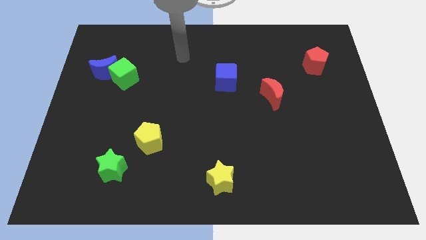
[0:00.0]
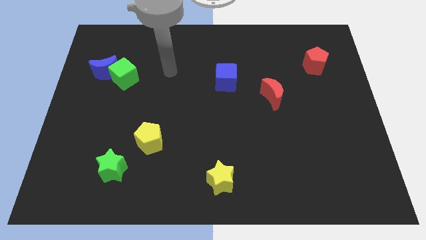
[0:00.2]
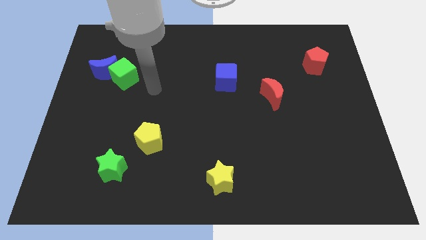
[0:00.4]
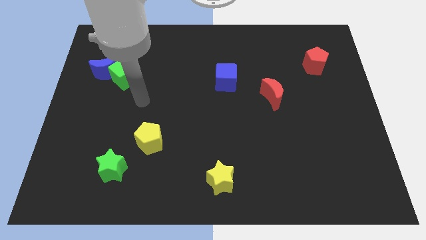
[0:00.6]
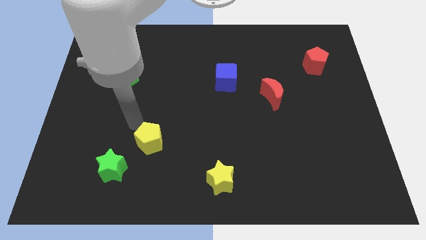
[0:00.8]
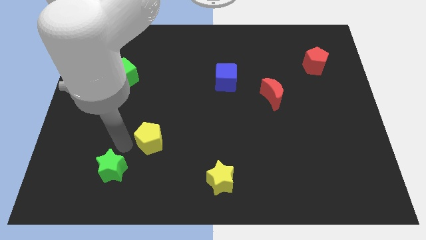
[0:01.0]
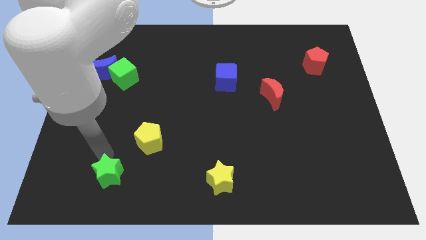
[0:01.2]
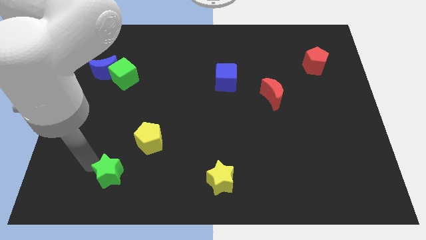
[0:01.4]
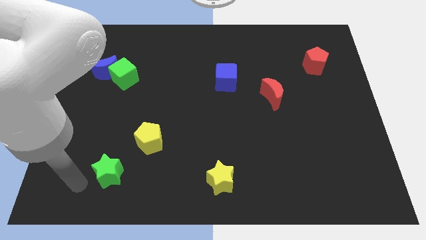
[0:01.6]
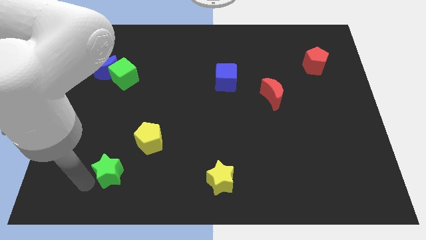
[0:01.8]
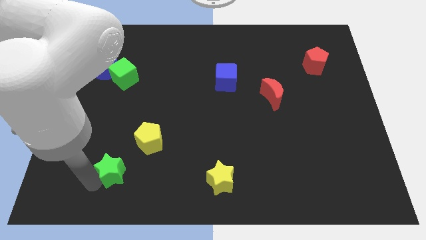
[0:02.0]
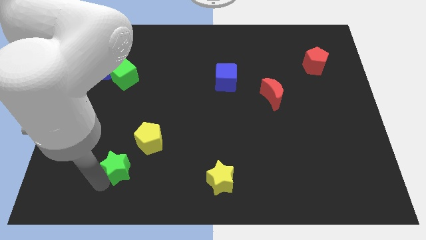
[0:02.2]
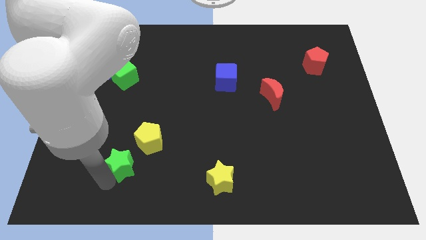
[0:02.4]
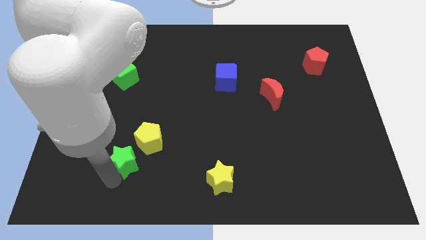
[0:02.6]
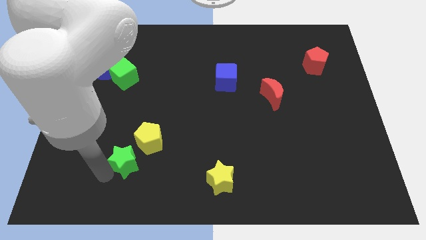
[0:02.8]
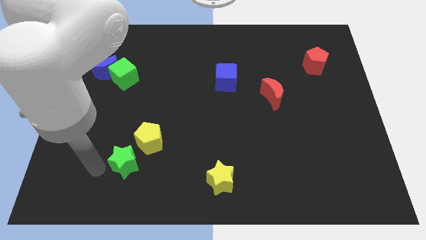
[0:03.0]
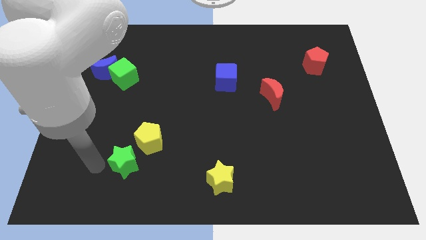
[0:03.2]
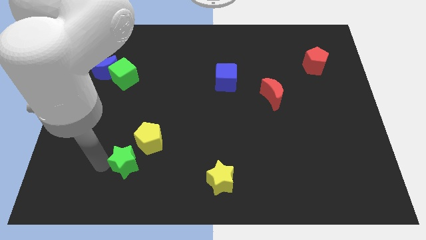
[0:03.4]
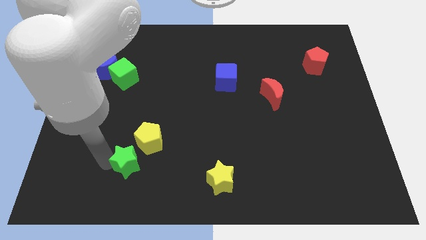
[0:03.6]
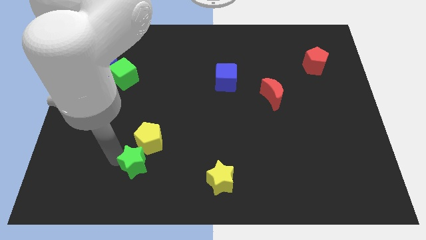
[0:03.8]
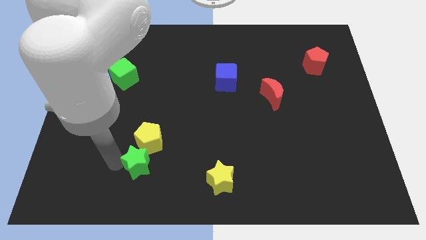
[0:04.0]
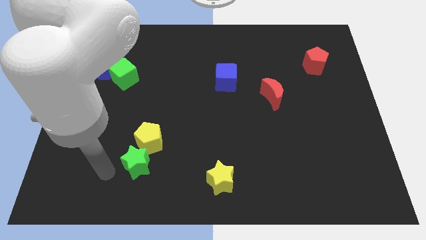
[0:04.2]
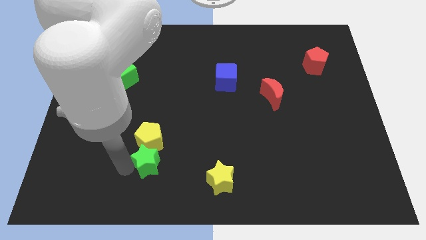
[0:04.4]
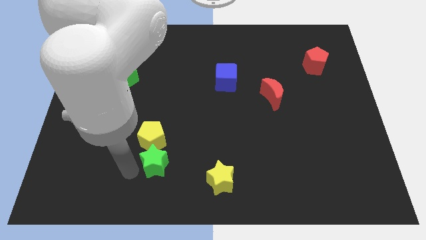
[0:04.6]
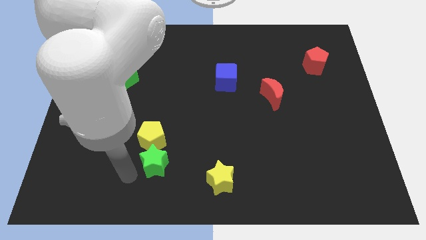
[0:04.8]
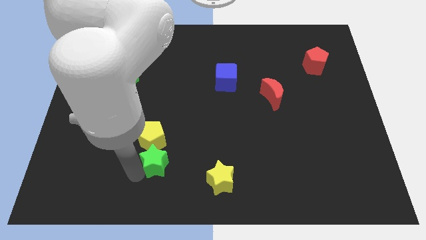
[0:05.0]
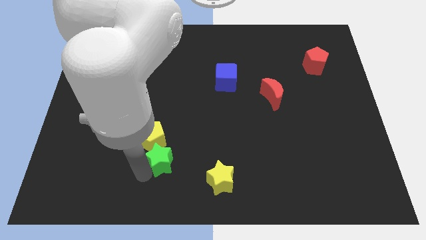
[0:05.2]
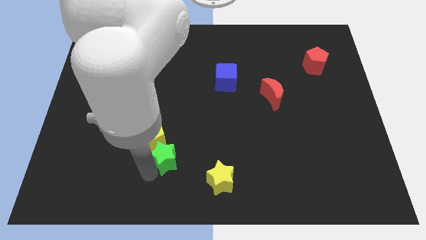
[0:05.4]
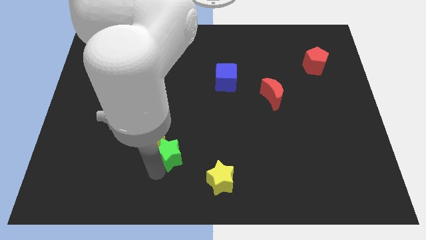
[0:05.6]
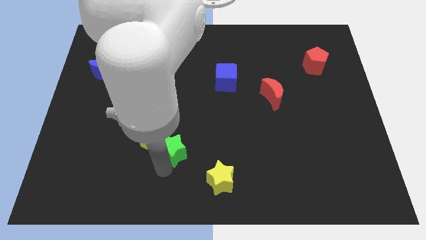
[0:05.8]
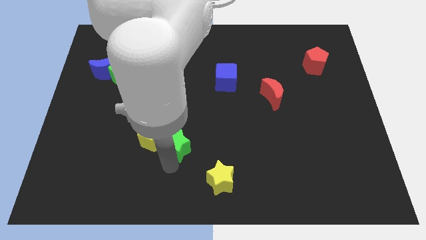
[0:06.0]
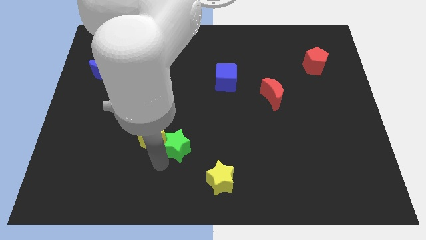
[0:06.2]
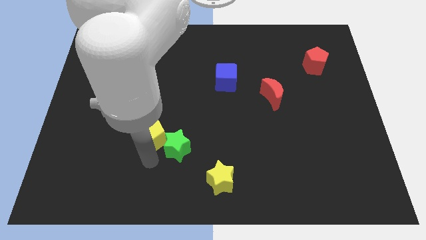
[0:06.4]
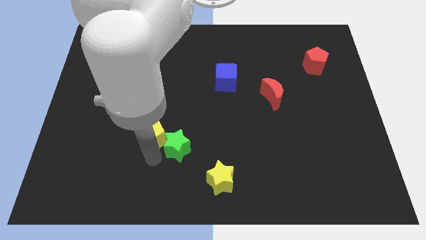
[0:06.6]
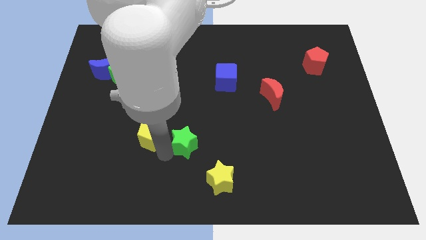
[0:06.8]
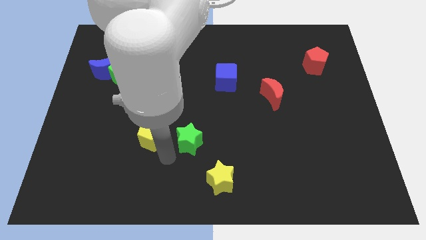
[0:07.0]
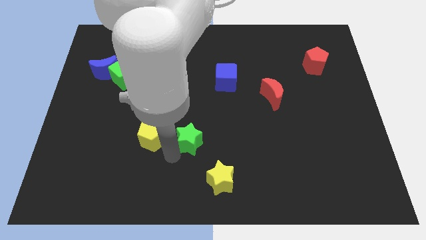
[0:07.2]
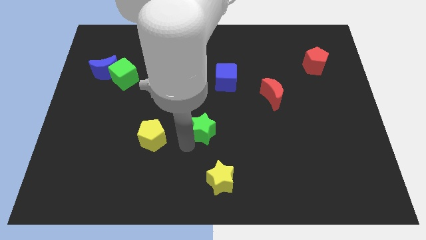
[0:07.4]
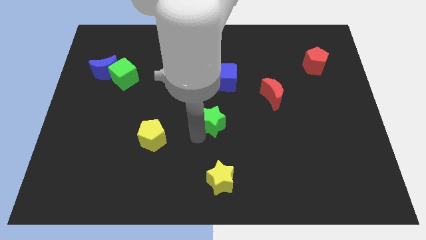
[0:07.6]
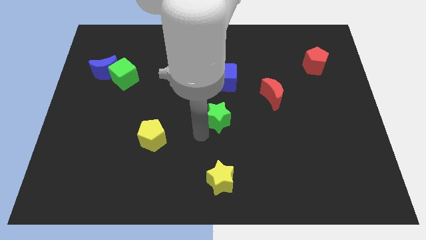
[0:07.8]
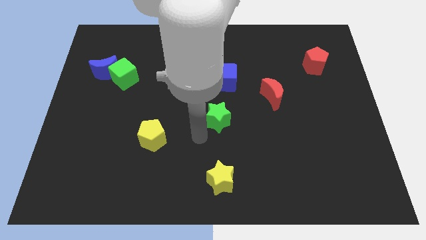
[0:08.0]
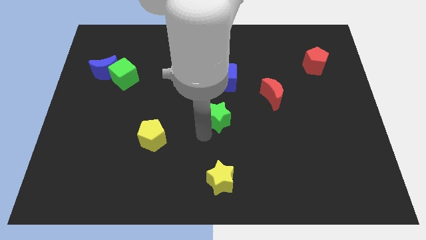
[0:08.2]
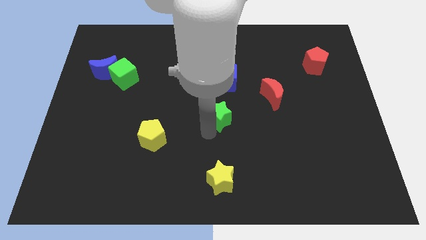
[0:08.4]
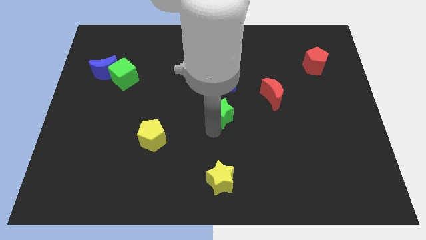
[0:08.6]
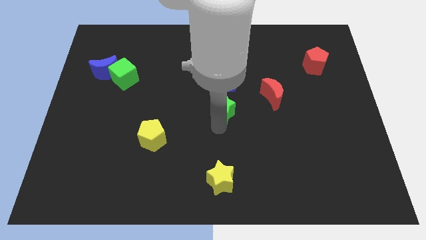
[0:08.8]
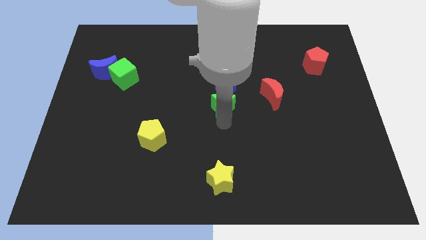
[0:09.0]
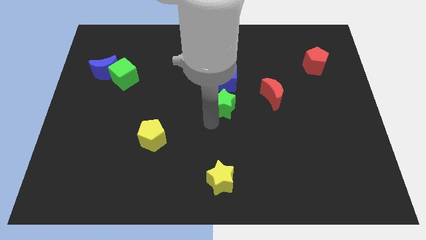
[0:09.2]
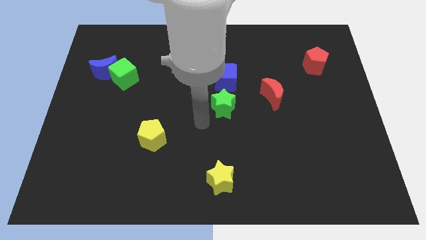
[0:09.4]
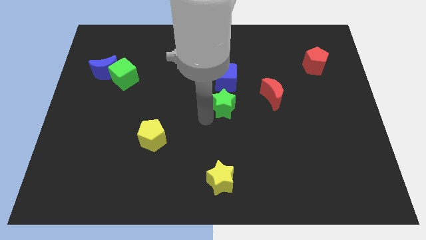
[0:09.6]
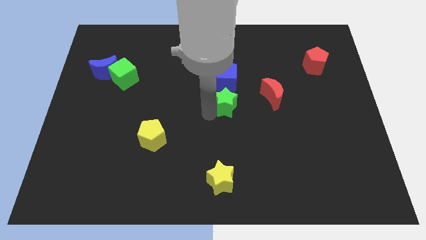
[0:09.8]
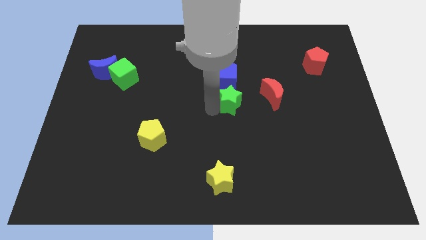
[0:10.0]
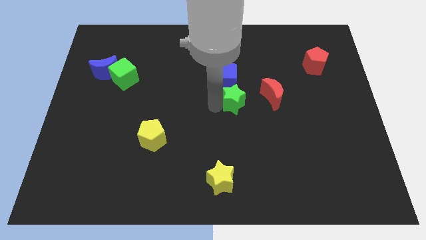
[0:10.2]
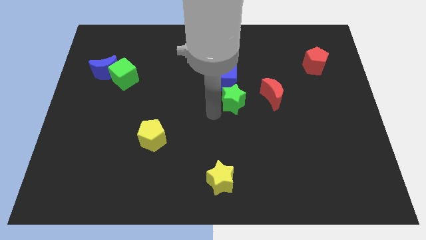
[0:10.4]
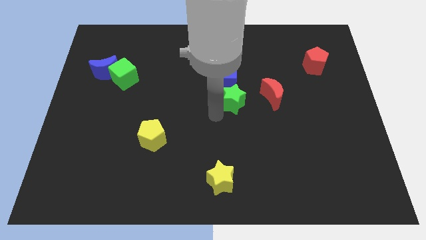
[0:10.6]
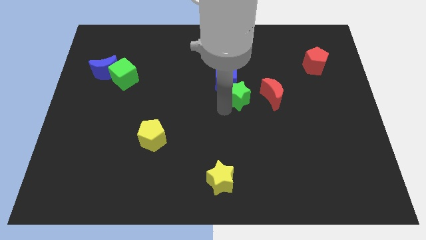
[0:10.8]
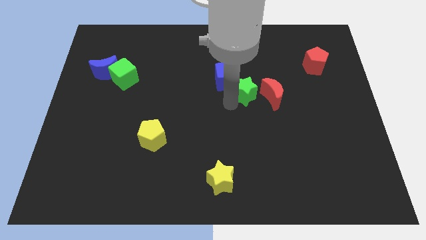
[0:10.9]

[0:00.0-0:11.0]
put the green star just right of the blue cube

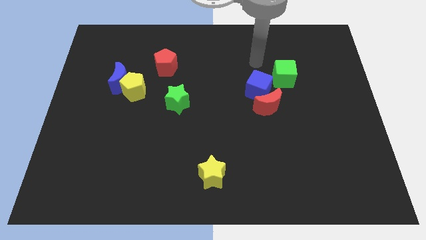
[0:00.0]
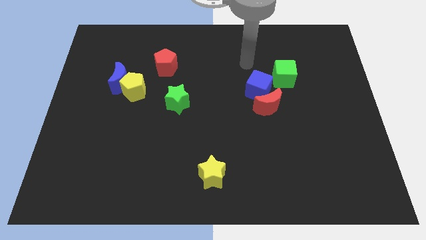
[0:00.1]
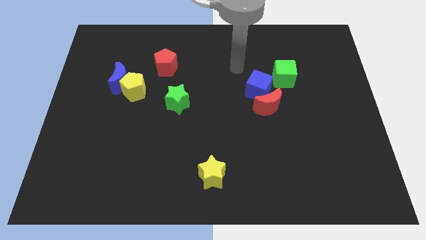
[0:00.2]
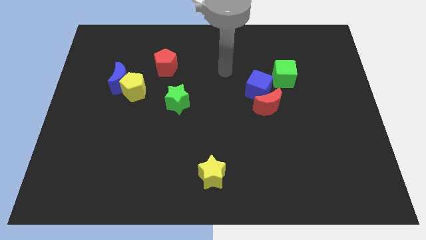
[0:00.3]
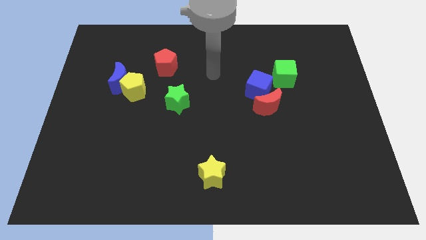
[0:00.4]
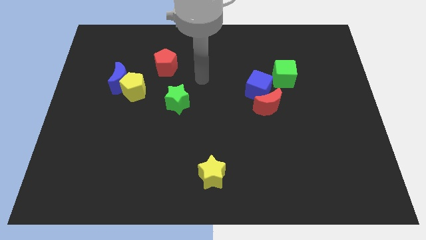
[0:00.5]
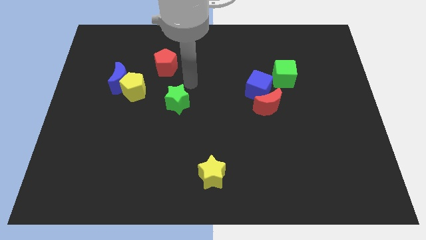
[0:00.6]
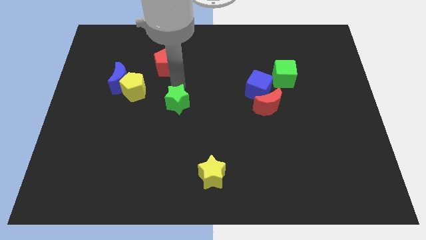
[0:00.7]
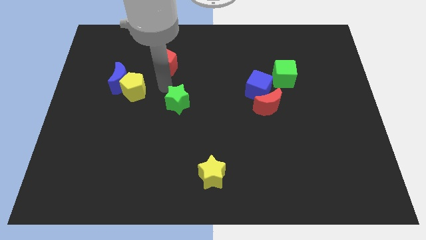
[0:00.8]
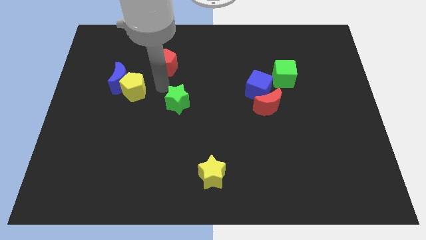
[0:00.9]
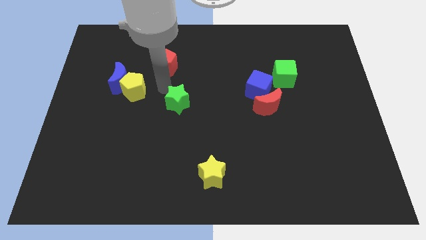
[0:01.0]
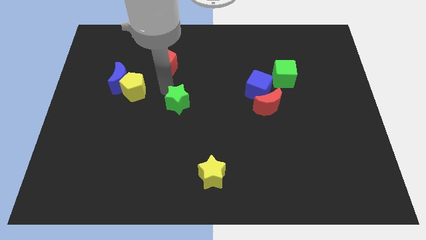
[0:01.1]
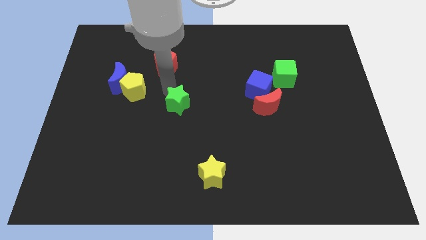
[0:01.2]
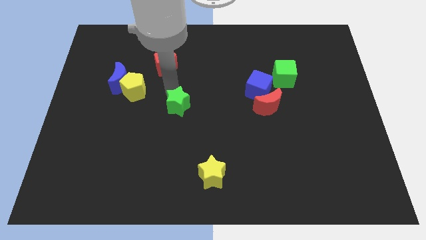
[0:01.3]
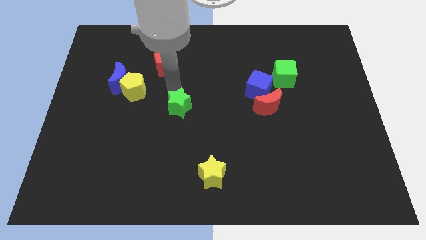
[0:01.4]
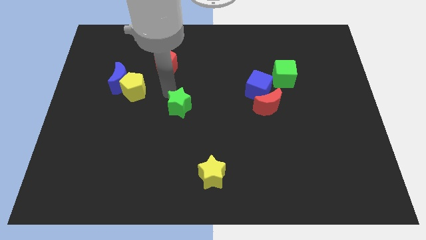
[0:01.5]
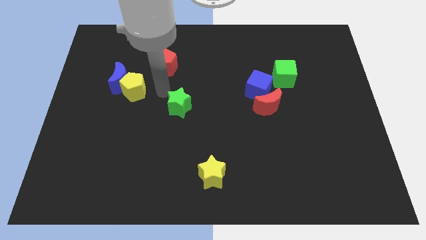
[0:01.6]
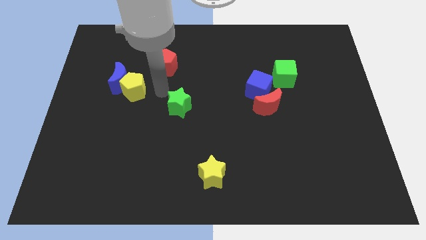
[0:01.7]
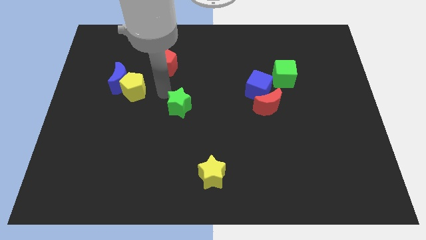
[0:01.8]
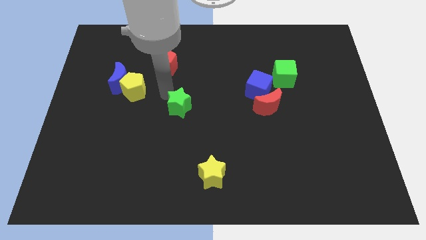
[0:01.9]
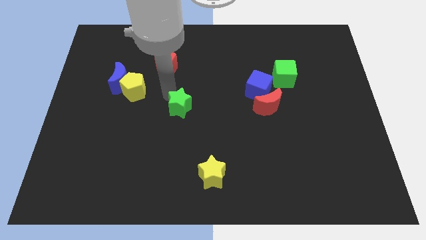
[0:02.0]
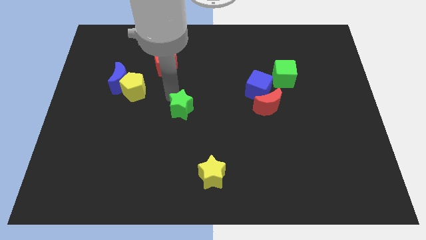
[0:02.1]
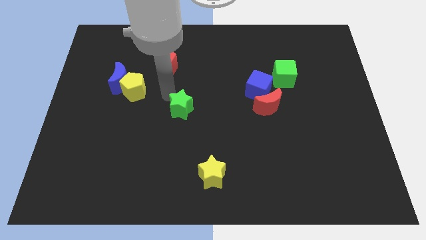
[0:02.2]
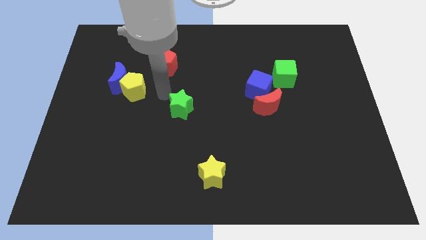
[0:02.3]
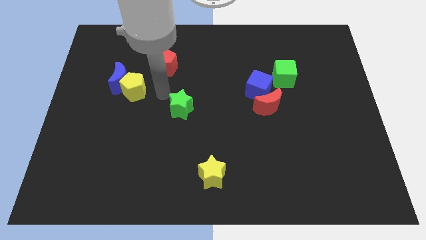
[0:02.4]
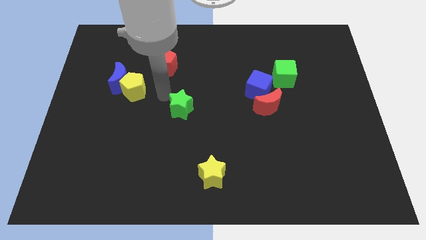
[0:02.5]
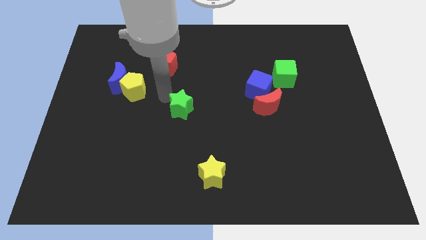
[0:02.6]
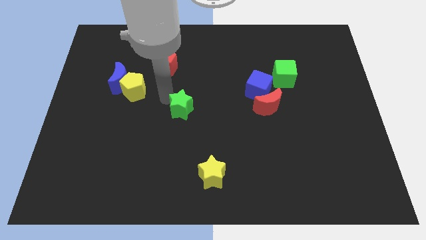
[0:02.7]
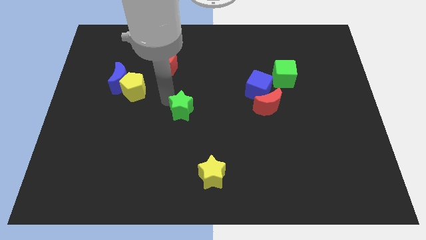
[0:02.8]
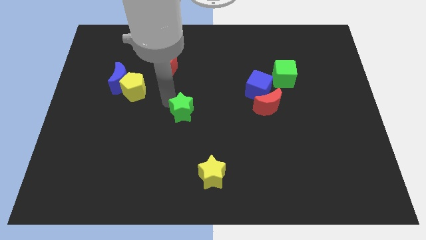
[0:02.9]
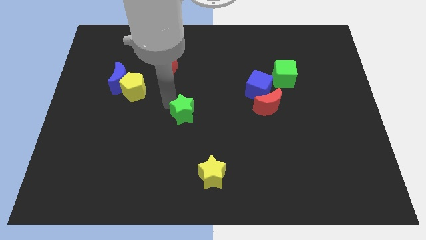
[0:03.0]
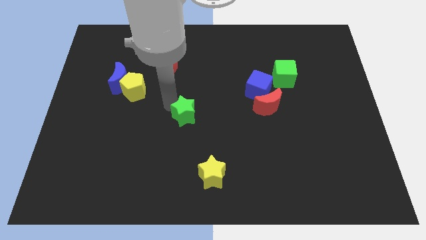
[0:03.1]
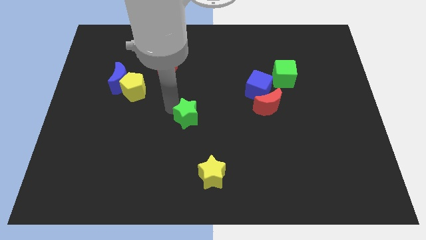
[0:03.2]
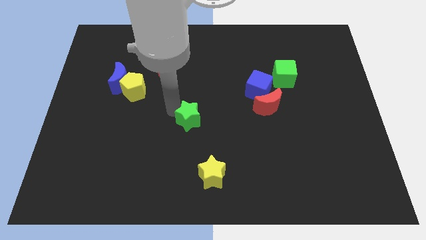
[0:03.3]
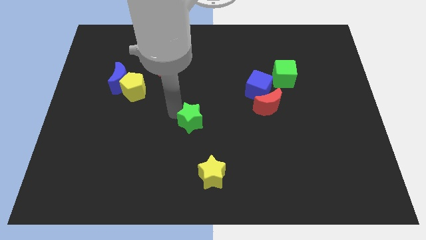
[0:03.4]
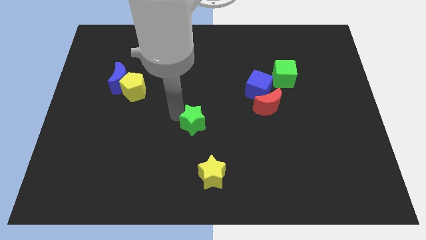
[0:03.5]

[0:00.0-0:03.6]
move the green star to the top side of the yellow star
